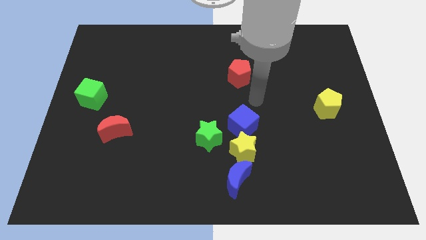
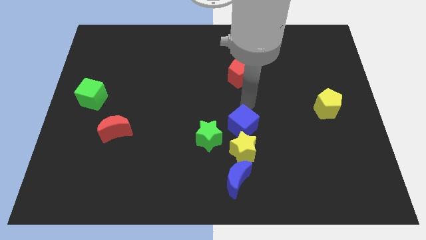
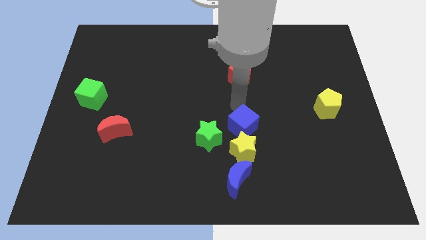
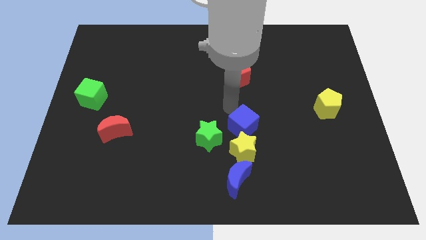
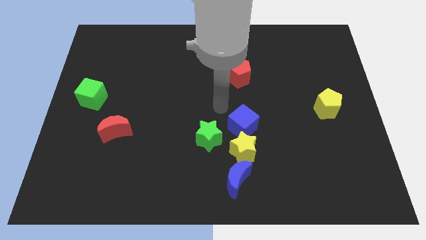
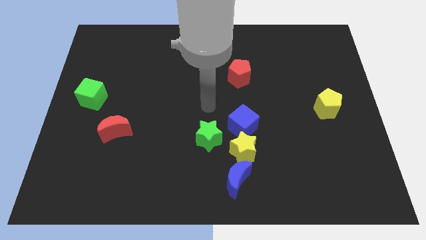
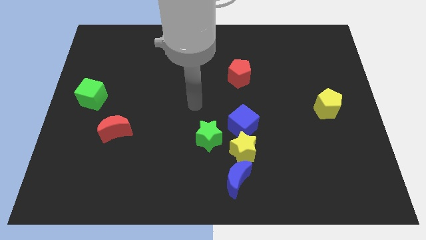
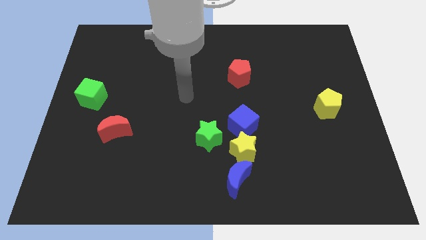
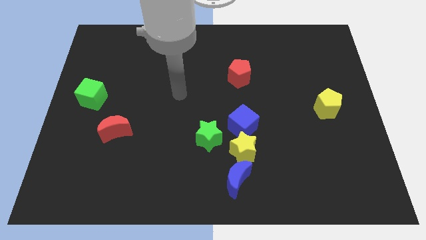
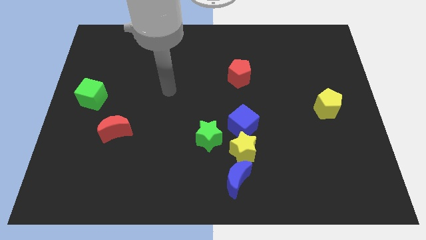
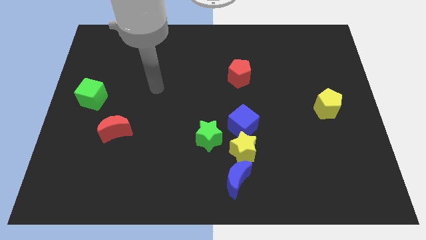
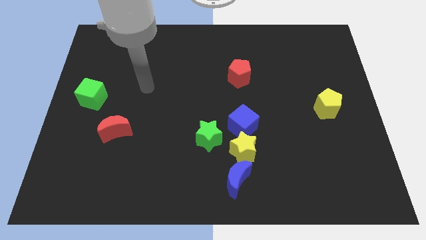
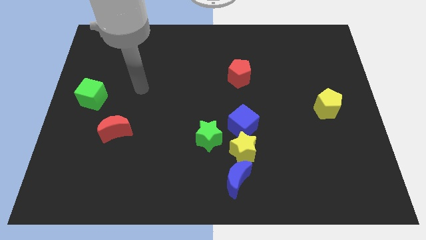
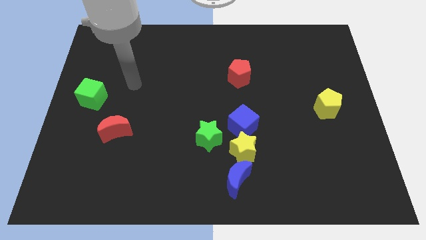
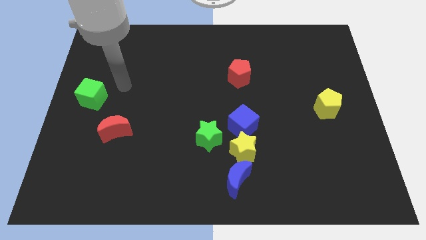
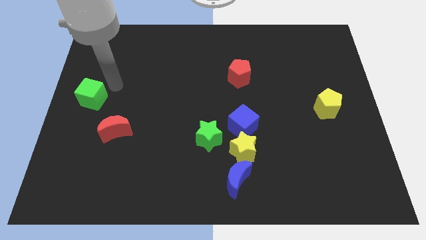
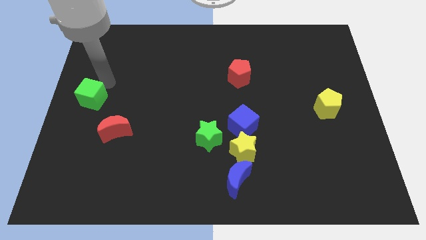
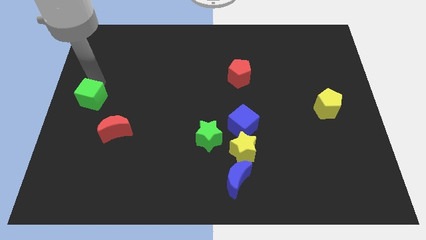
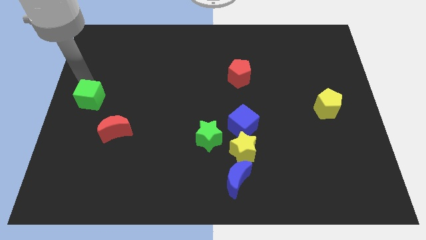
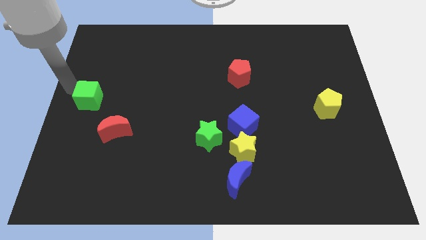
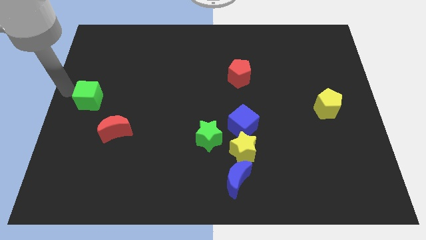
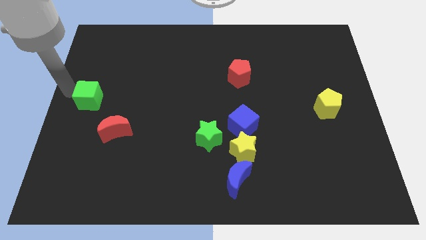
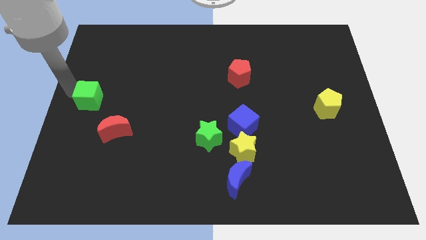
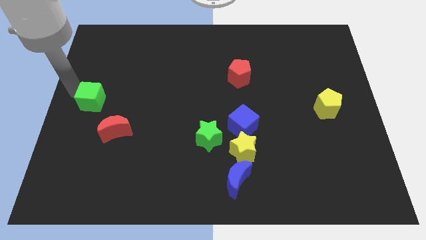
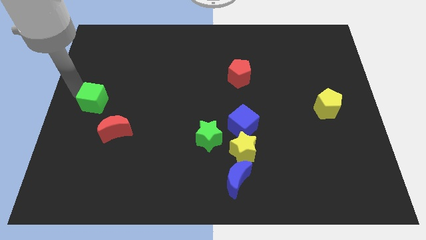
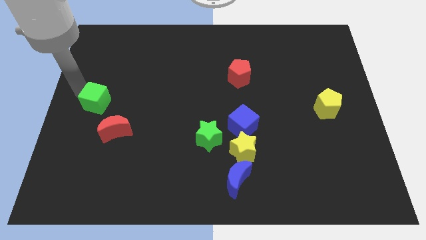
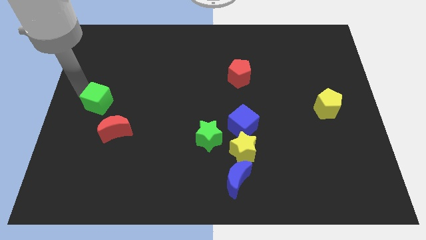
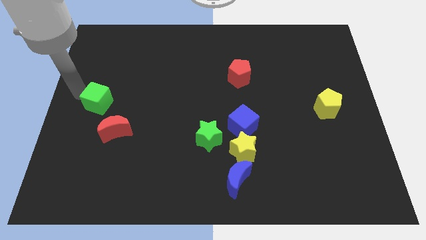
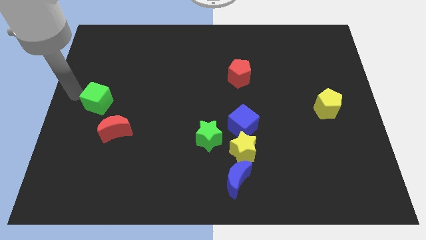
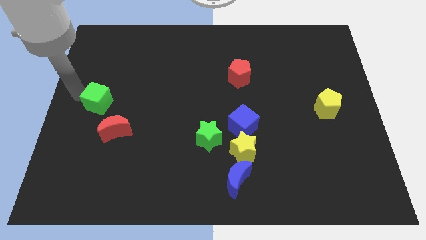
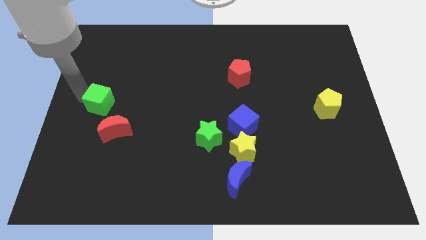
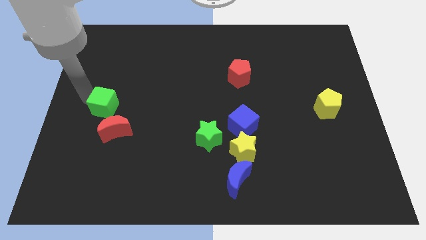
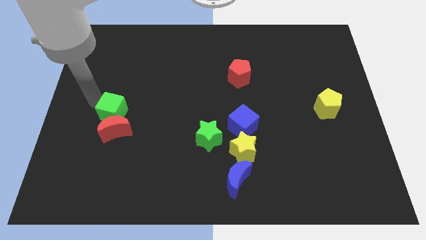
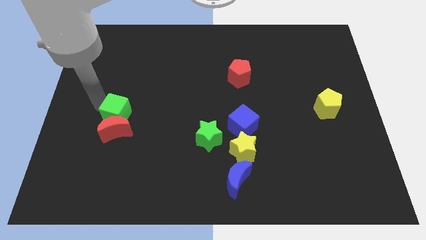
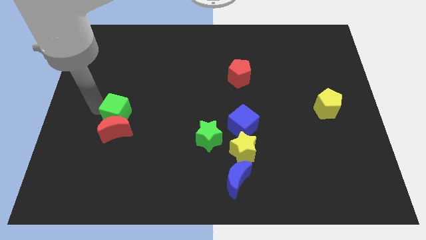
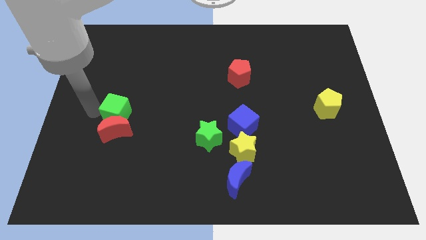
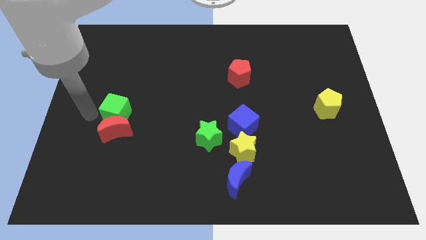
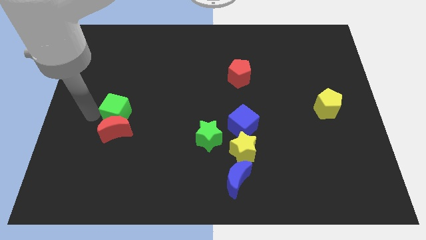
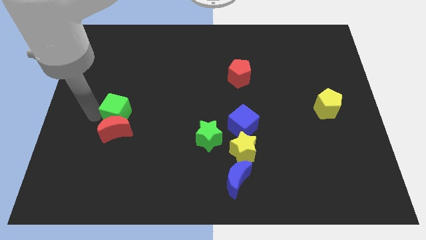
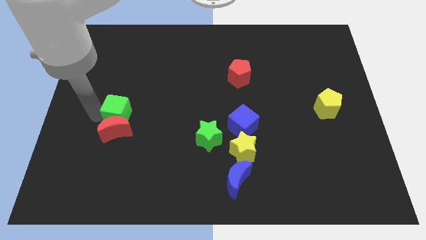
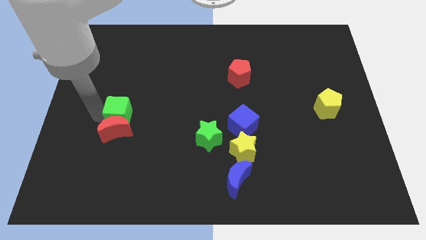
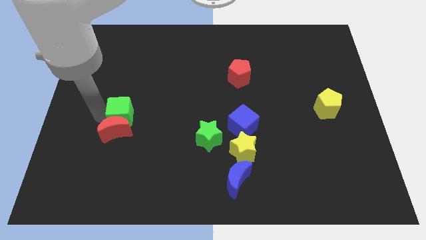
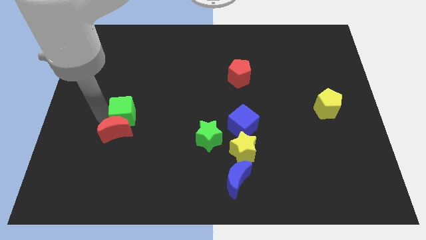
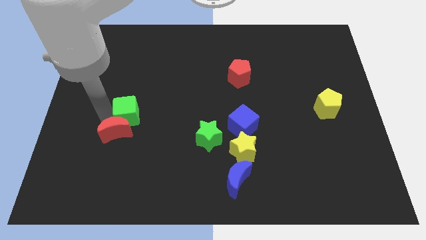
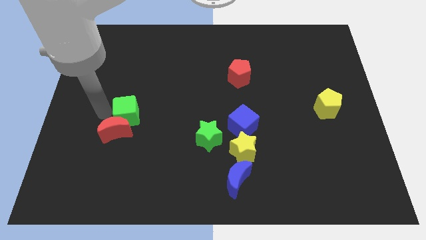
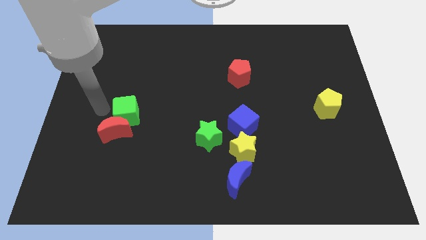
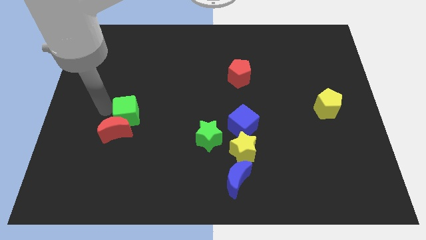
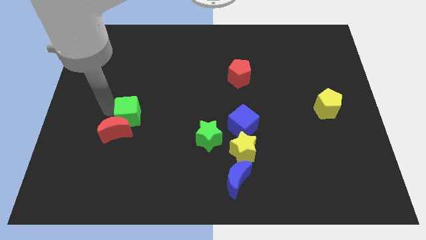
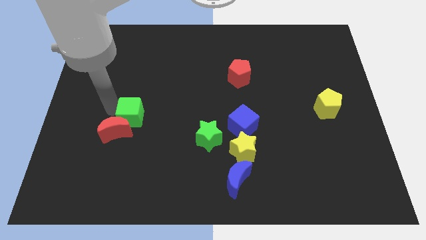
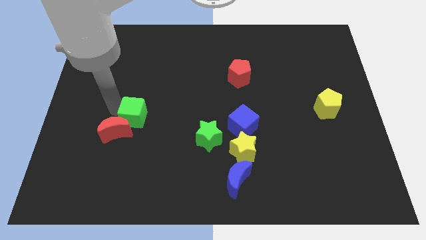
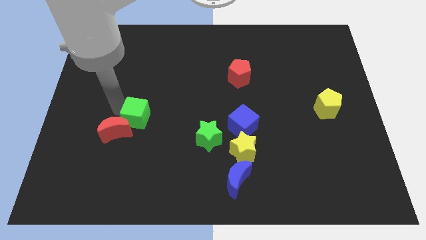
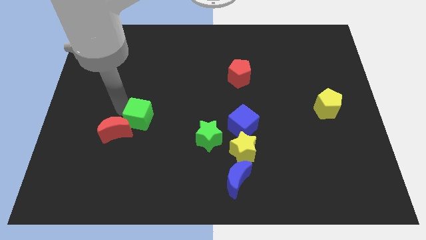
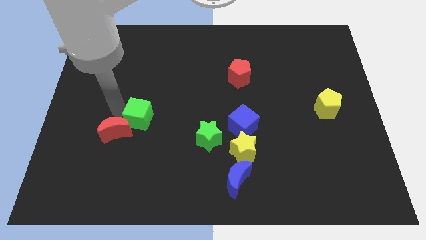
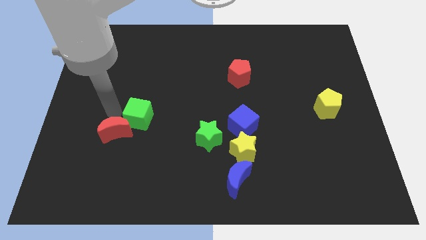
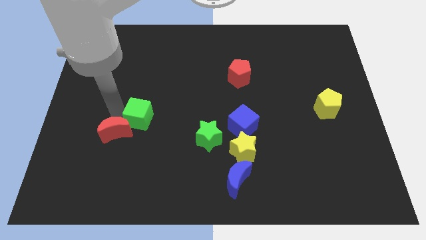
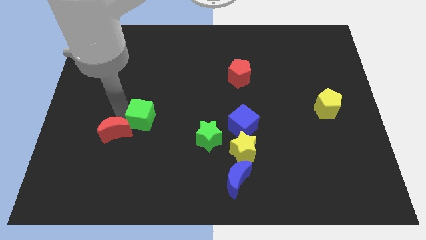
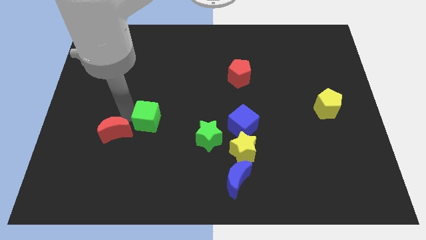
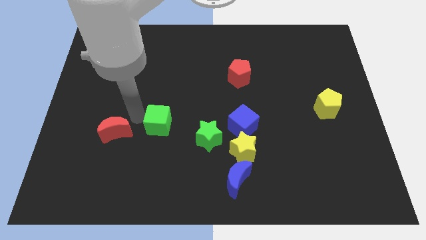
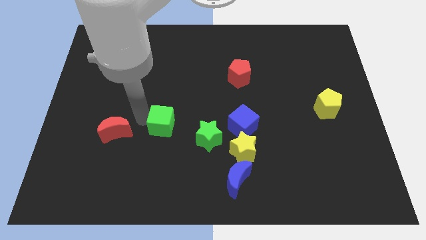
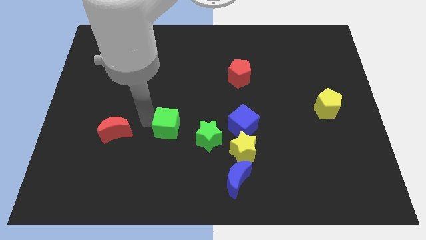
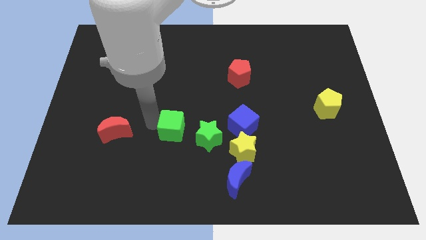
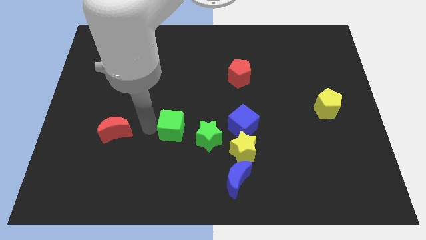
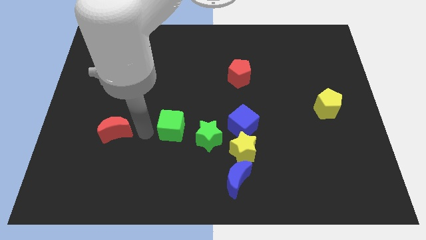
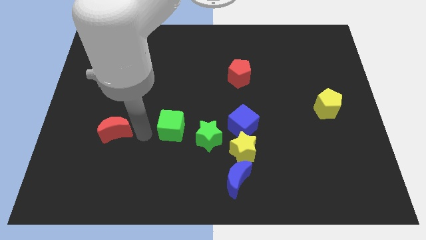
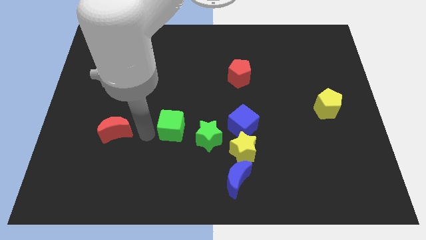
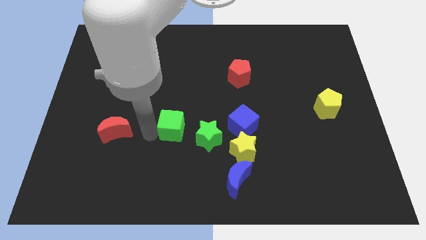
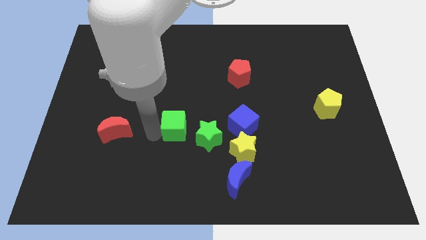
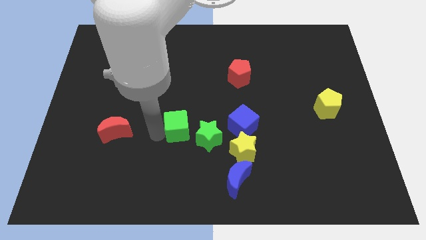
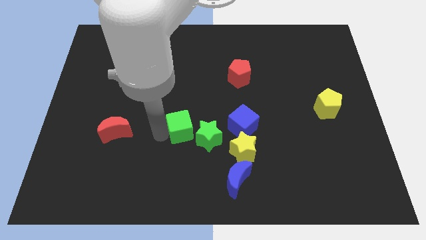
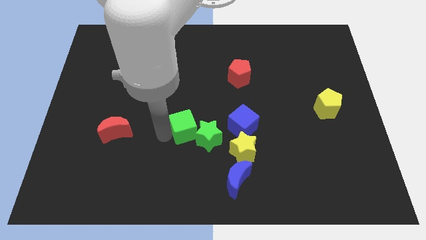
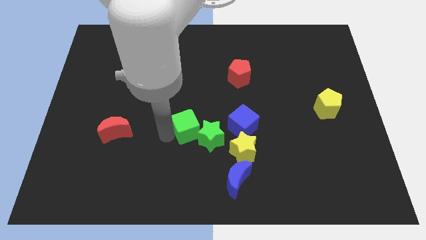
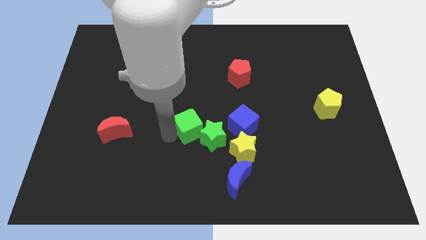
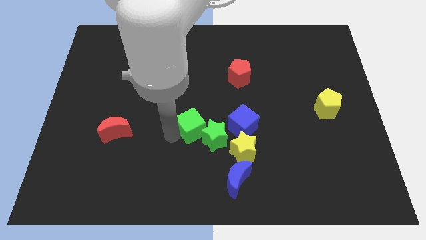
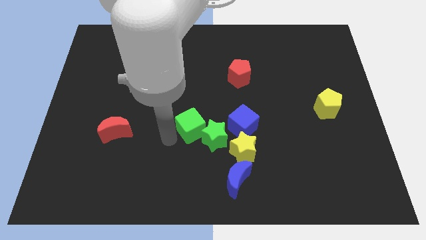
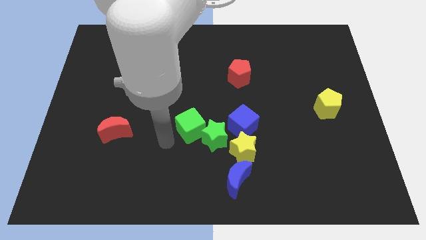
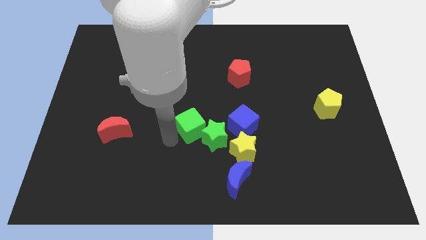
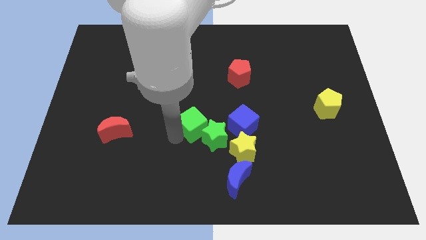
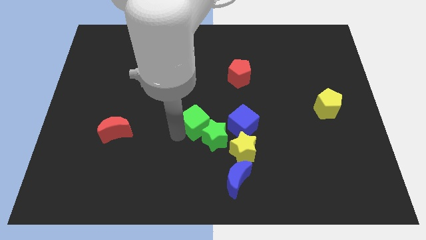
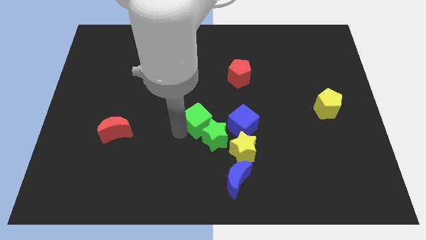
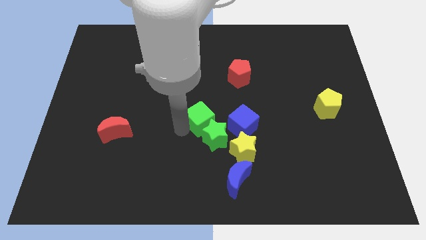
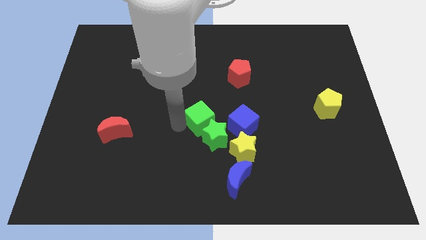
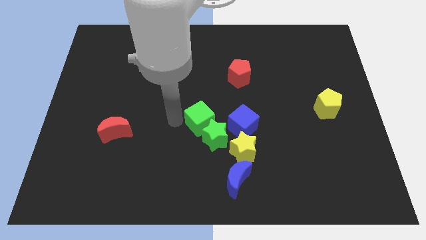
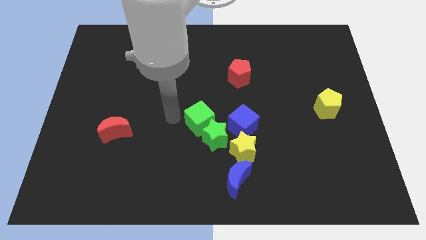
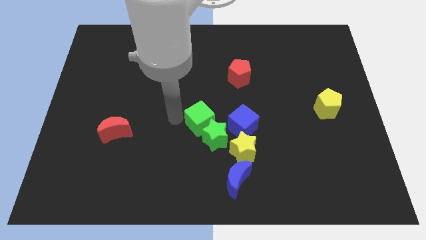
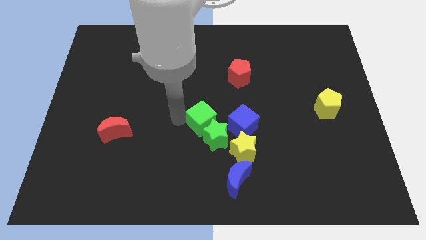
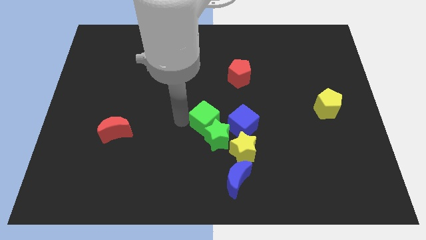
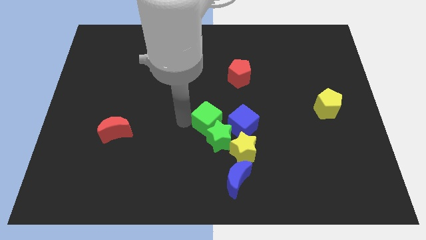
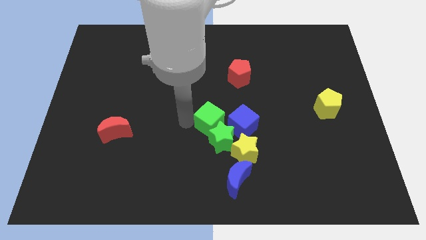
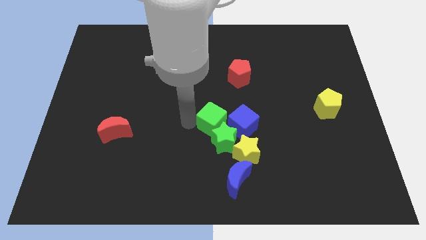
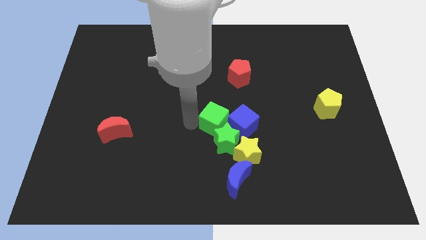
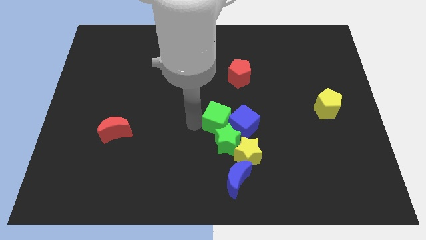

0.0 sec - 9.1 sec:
move the green cube close to the blue cube
